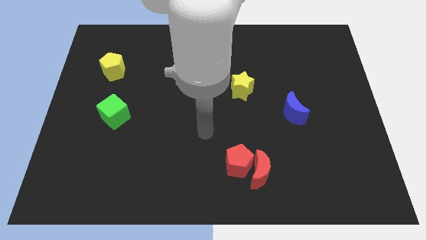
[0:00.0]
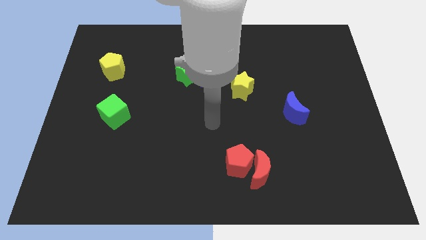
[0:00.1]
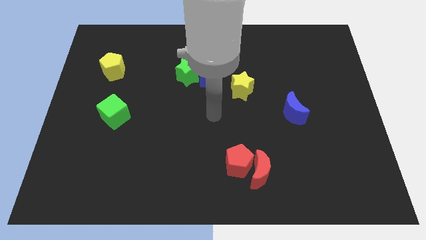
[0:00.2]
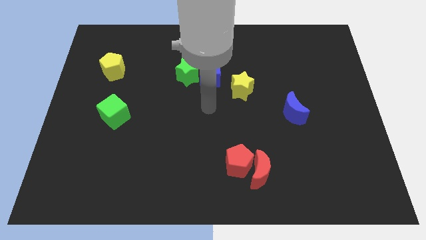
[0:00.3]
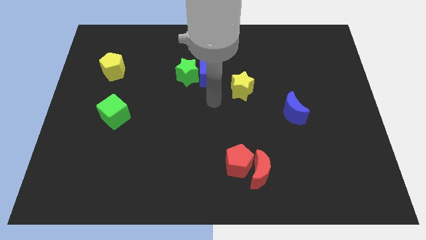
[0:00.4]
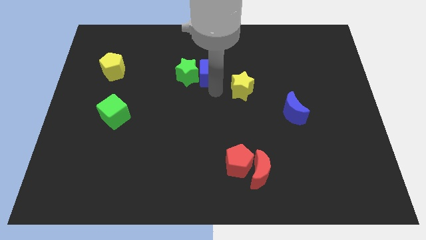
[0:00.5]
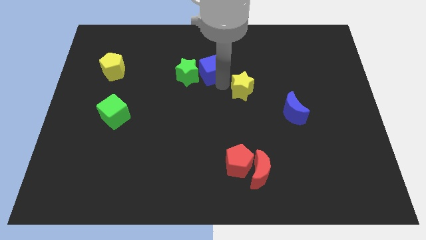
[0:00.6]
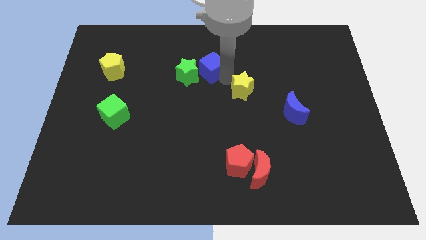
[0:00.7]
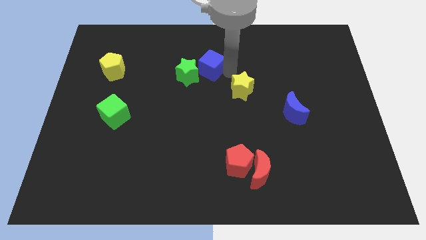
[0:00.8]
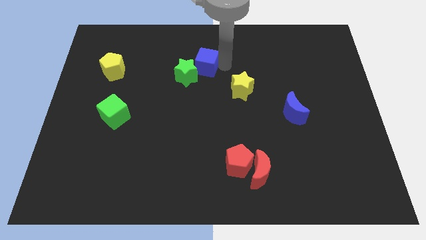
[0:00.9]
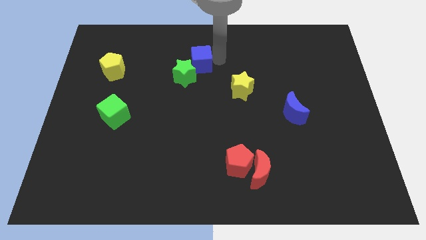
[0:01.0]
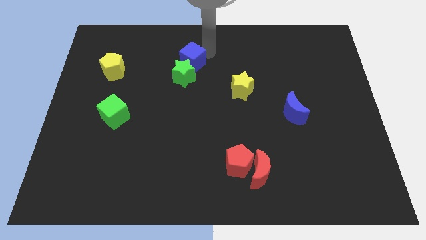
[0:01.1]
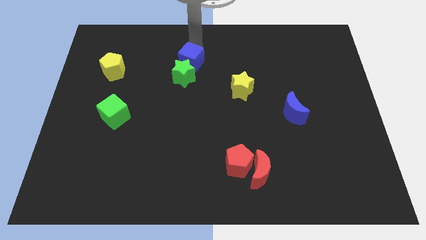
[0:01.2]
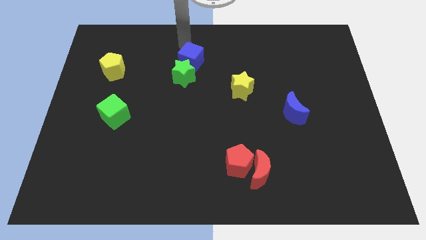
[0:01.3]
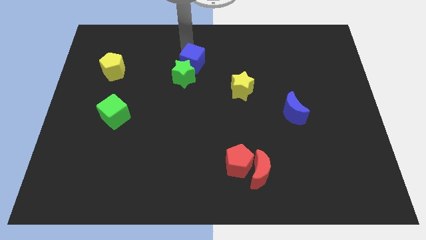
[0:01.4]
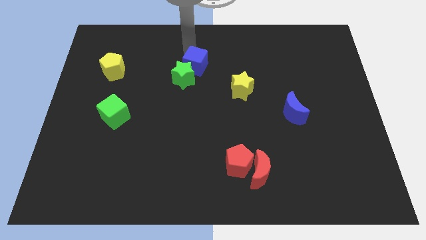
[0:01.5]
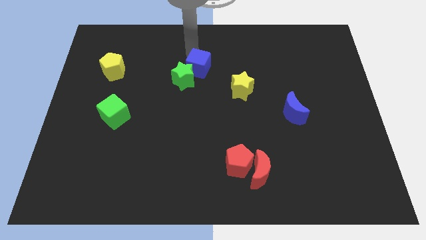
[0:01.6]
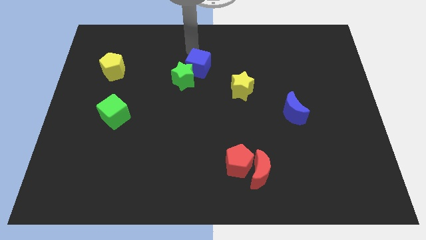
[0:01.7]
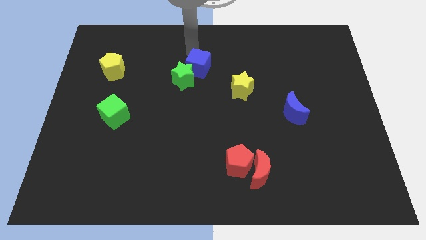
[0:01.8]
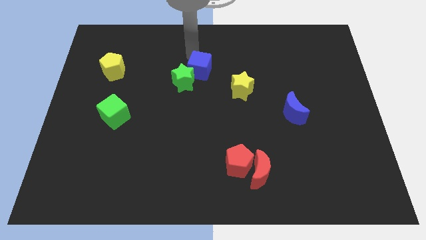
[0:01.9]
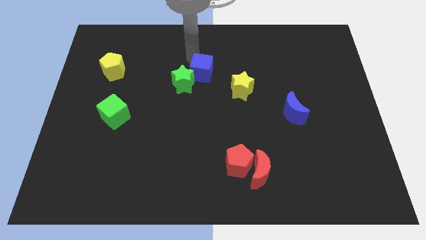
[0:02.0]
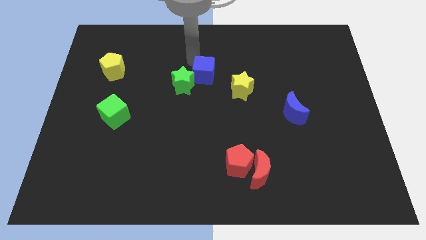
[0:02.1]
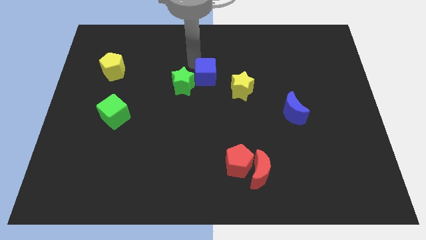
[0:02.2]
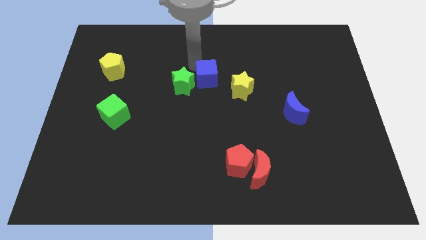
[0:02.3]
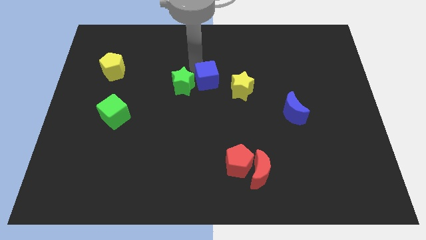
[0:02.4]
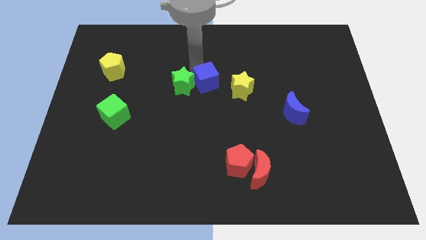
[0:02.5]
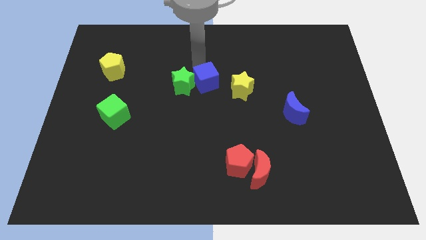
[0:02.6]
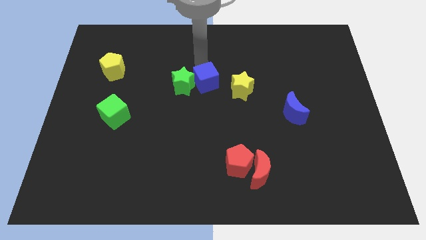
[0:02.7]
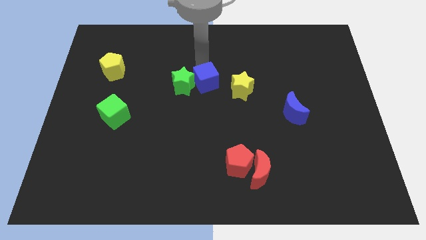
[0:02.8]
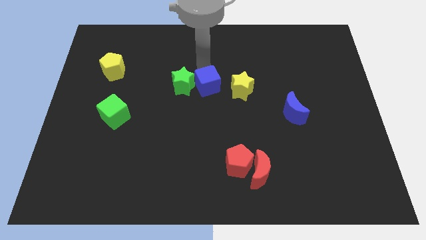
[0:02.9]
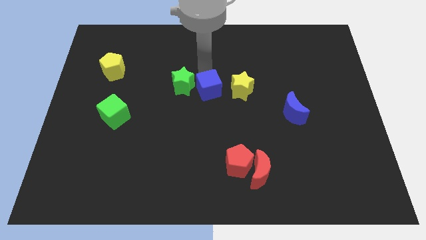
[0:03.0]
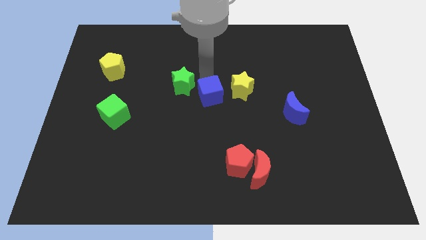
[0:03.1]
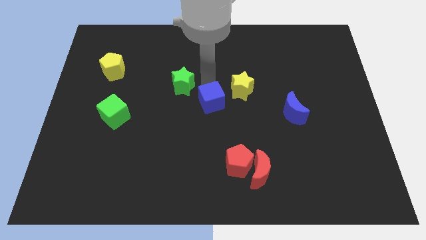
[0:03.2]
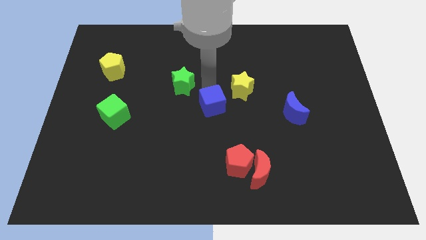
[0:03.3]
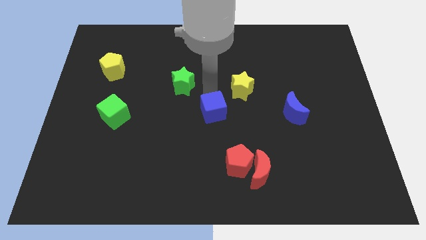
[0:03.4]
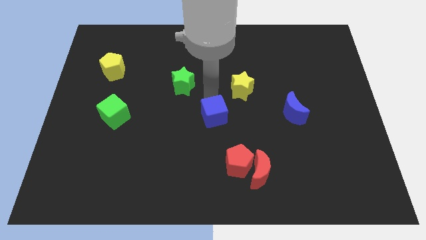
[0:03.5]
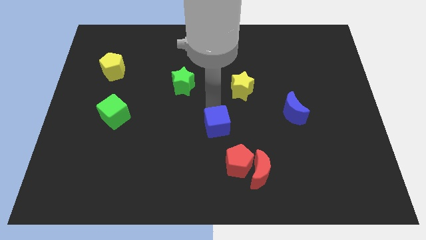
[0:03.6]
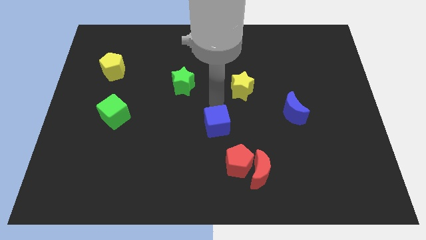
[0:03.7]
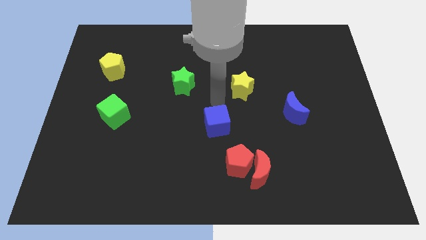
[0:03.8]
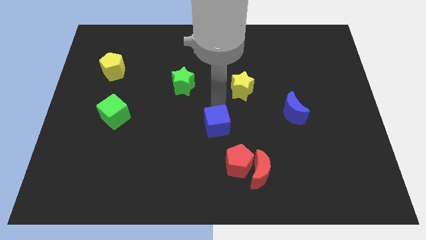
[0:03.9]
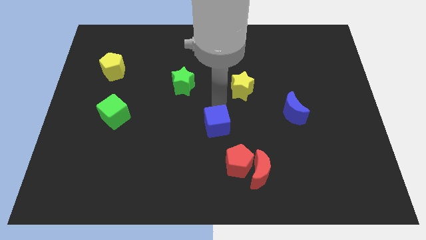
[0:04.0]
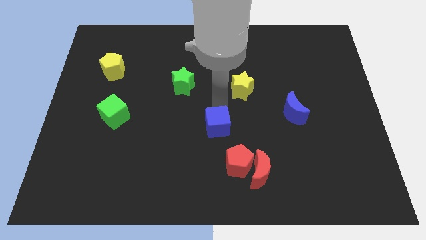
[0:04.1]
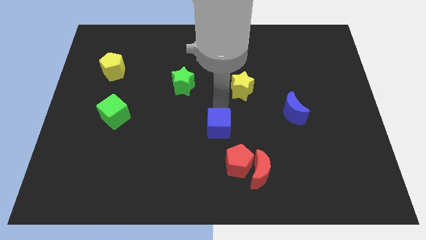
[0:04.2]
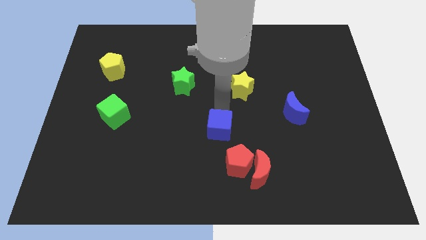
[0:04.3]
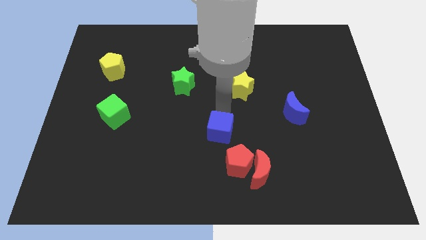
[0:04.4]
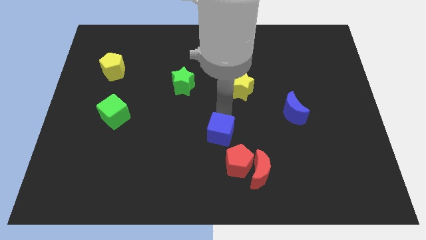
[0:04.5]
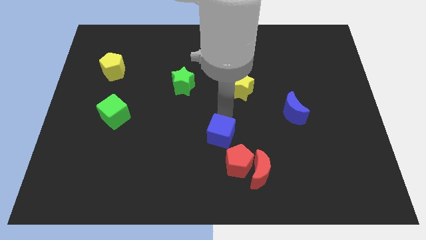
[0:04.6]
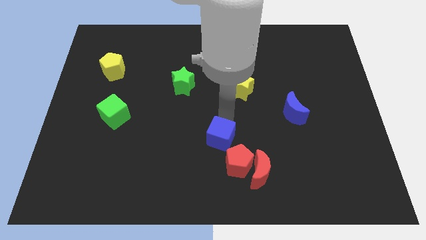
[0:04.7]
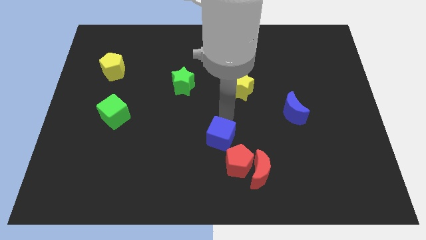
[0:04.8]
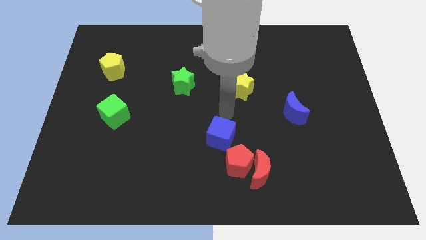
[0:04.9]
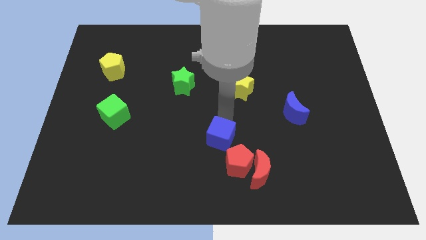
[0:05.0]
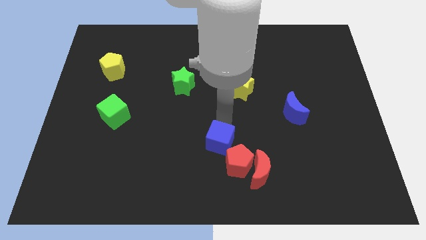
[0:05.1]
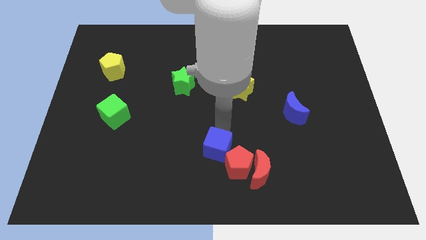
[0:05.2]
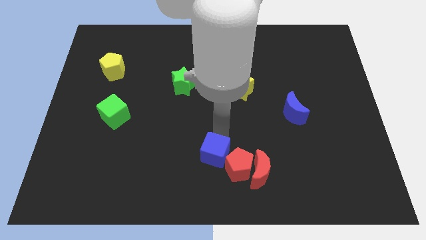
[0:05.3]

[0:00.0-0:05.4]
put the blue cube to the bottom

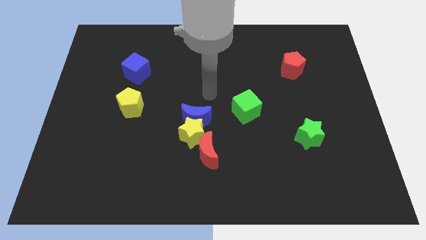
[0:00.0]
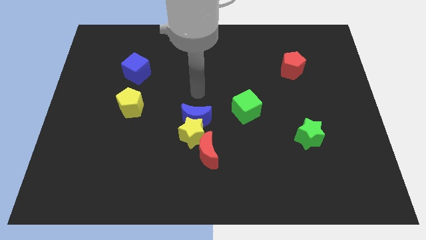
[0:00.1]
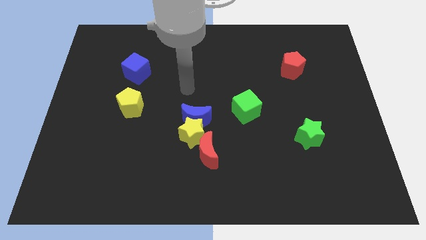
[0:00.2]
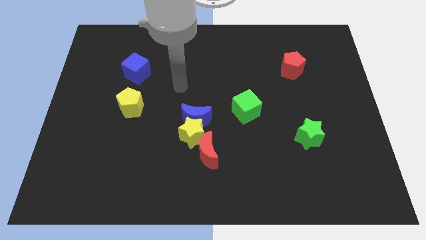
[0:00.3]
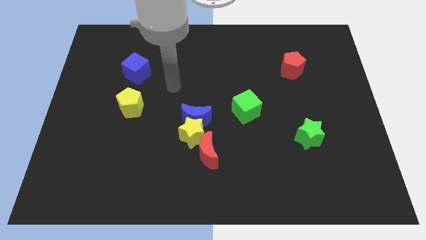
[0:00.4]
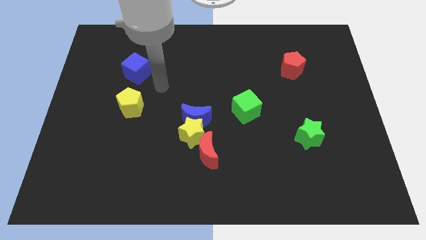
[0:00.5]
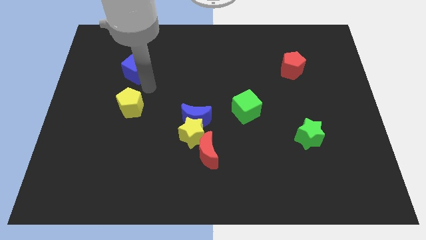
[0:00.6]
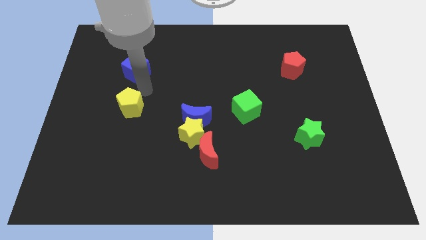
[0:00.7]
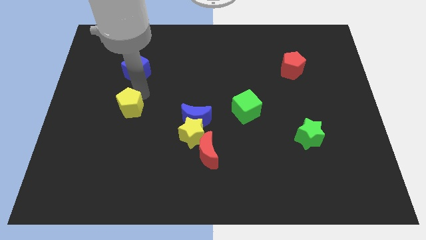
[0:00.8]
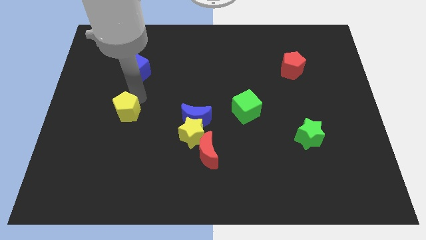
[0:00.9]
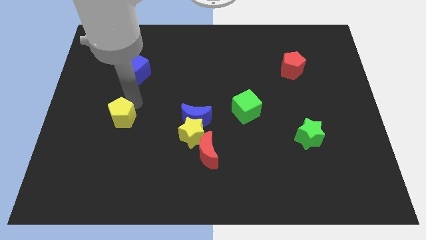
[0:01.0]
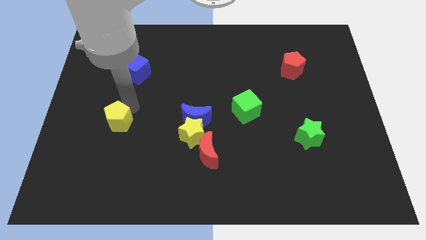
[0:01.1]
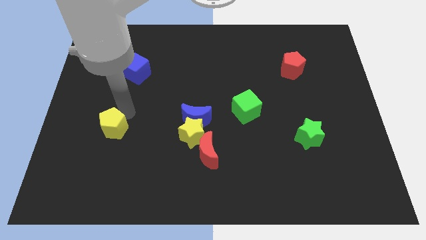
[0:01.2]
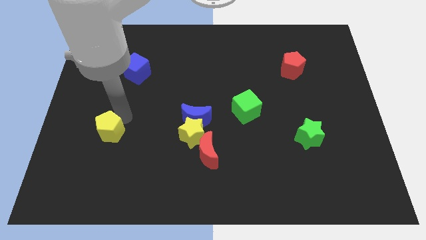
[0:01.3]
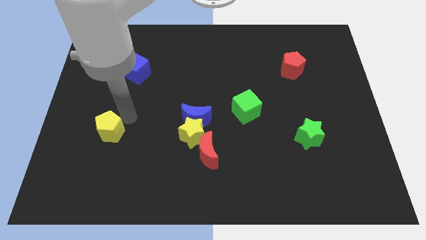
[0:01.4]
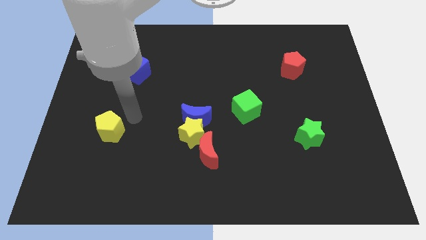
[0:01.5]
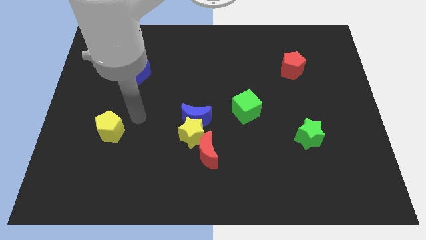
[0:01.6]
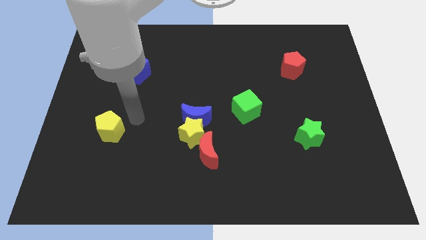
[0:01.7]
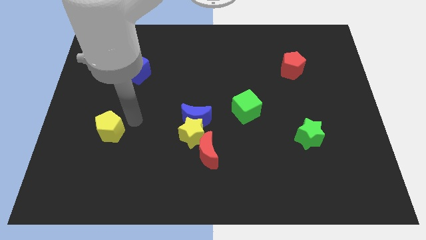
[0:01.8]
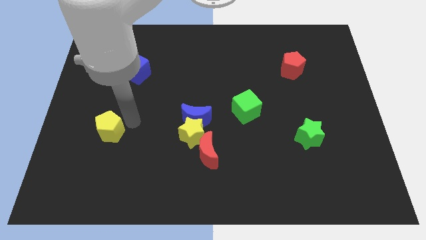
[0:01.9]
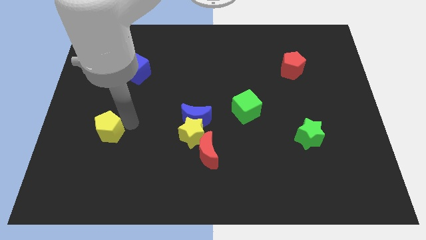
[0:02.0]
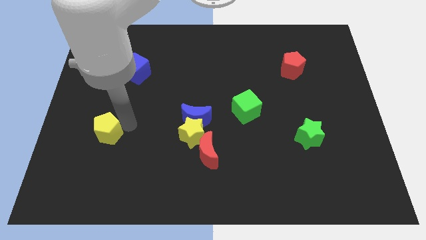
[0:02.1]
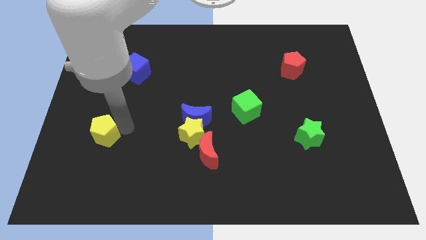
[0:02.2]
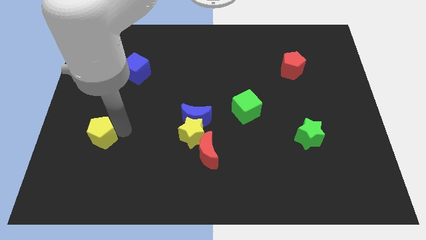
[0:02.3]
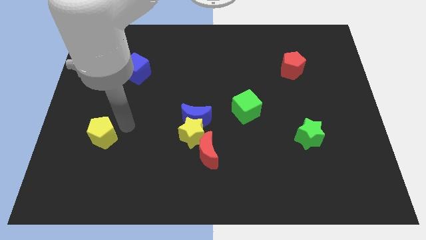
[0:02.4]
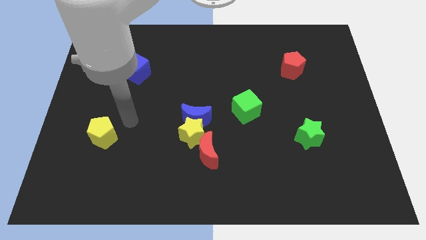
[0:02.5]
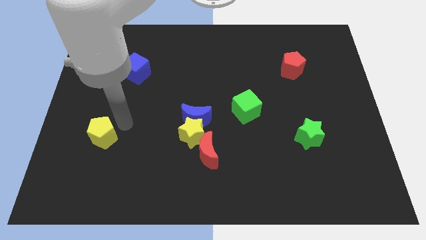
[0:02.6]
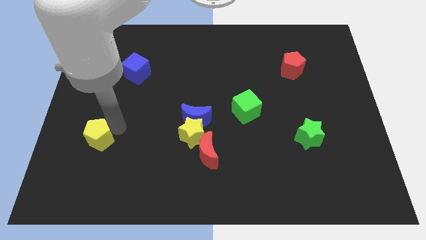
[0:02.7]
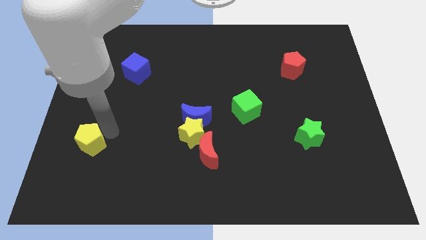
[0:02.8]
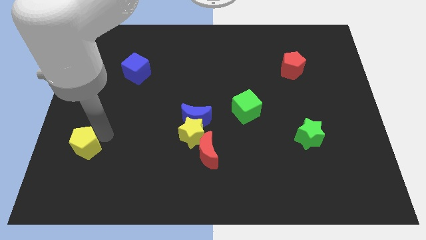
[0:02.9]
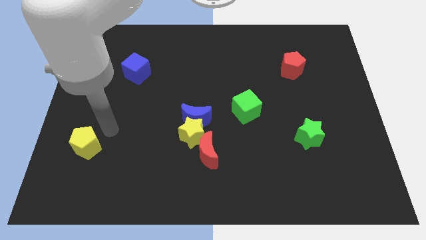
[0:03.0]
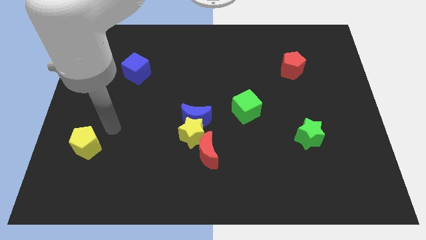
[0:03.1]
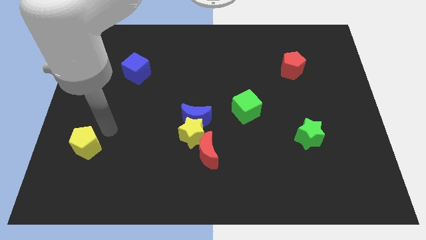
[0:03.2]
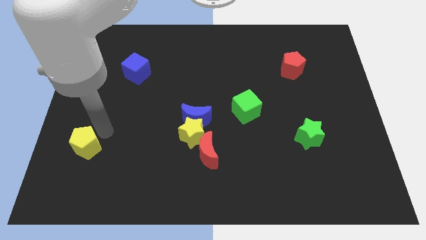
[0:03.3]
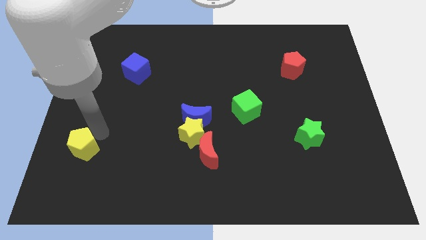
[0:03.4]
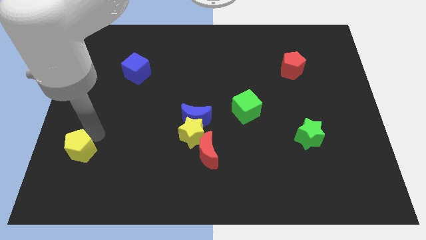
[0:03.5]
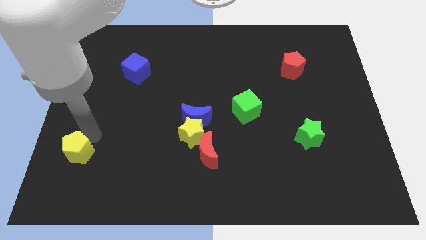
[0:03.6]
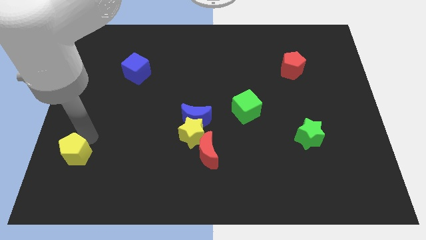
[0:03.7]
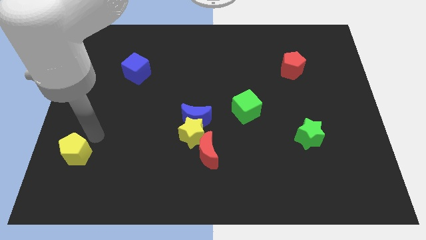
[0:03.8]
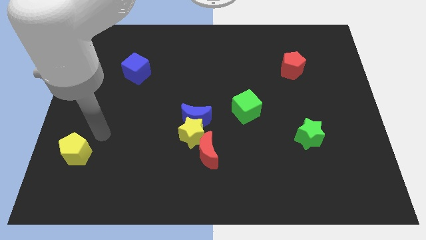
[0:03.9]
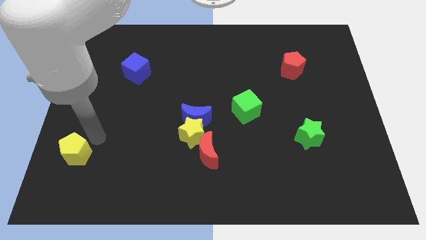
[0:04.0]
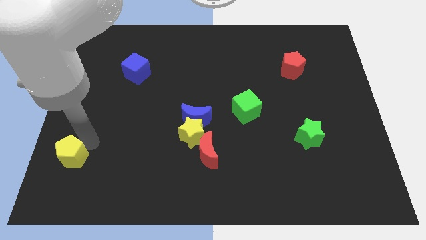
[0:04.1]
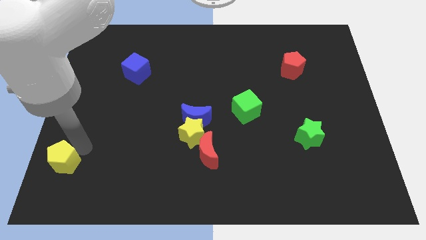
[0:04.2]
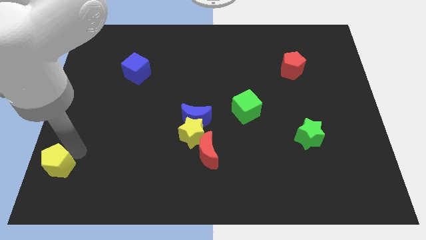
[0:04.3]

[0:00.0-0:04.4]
move the yellow pentagon to the lower left corner
